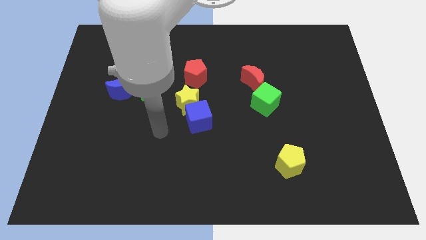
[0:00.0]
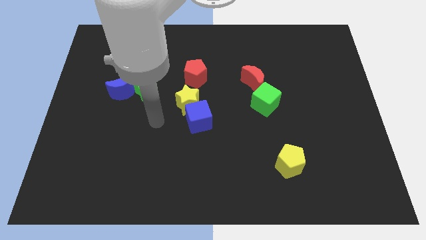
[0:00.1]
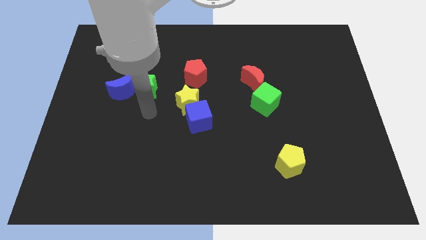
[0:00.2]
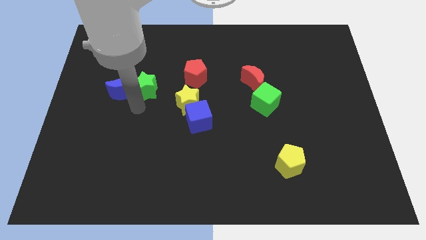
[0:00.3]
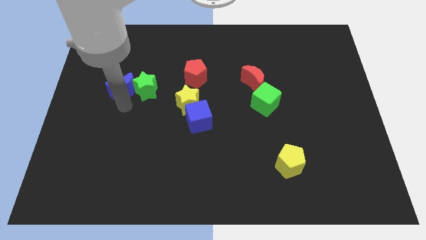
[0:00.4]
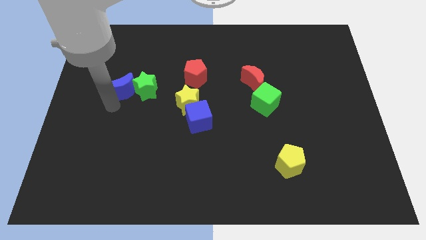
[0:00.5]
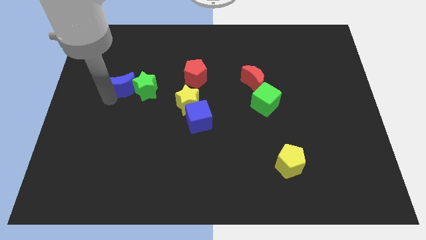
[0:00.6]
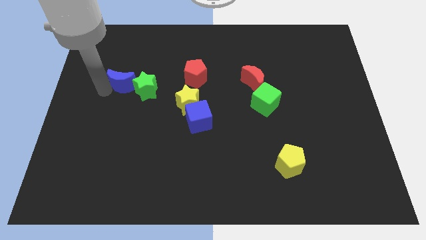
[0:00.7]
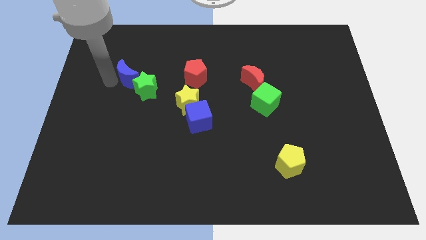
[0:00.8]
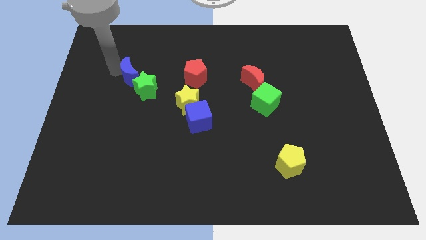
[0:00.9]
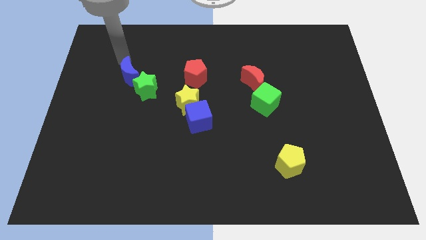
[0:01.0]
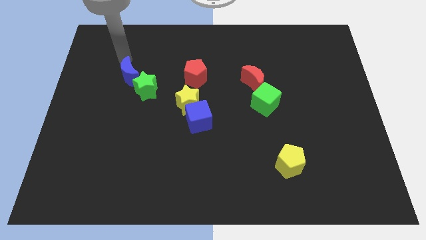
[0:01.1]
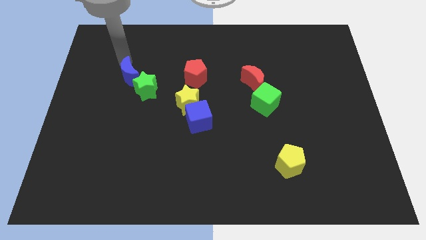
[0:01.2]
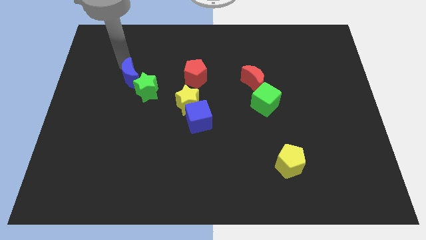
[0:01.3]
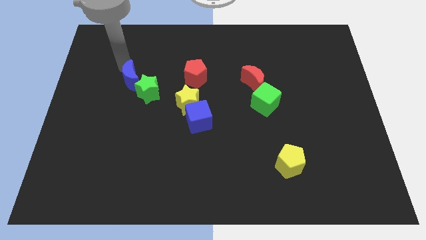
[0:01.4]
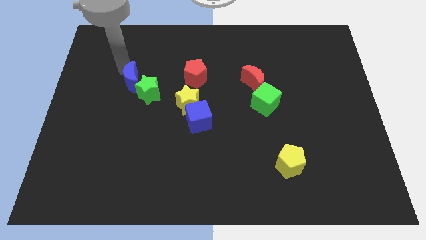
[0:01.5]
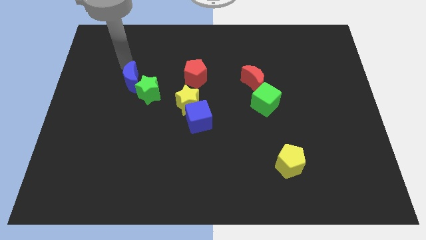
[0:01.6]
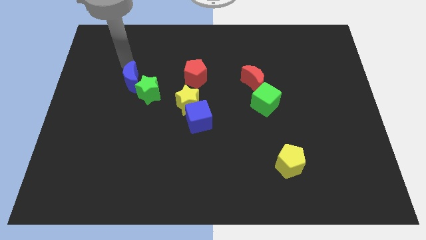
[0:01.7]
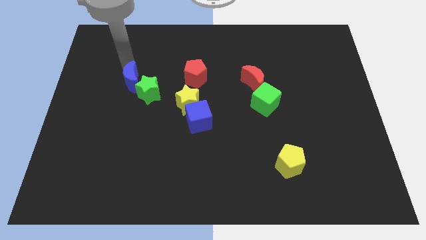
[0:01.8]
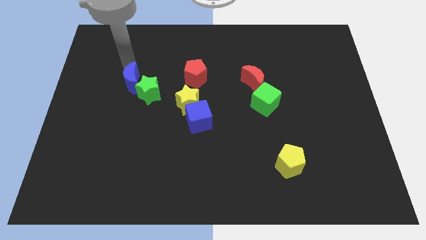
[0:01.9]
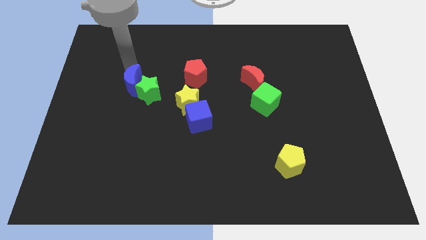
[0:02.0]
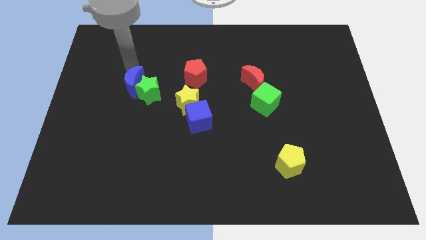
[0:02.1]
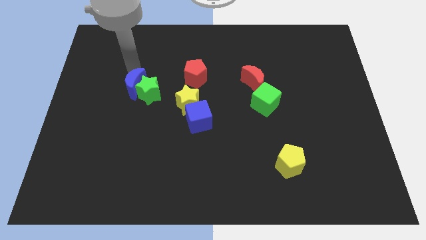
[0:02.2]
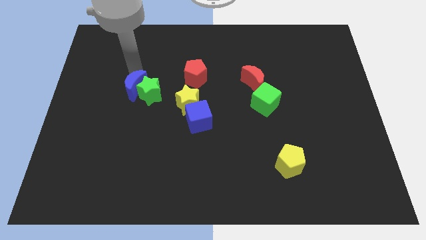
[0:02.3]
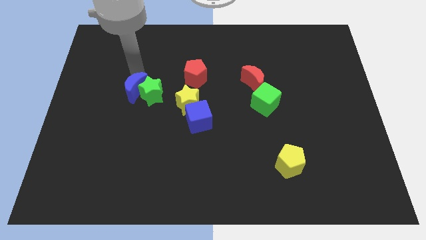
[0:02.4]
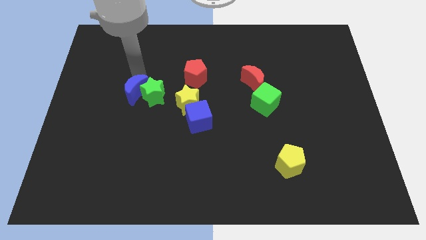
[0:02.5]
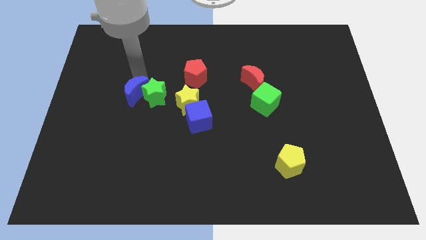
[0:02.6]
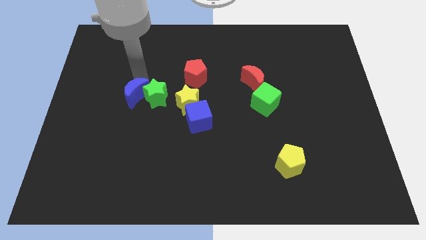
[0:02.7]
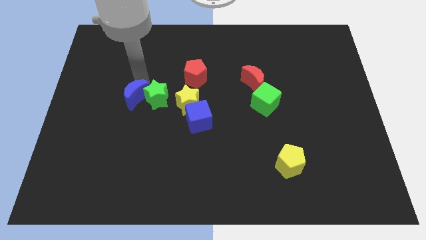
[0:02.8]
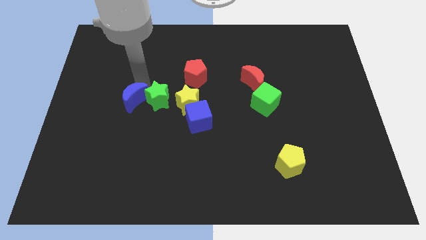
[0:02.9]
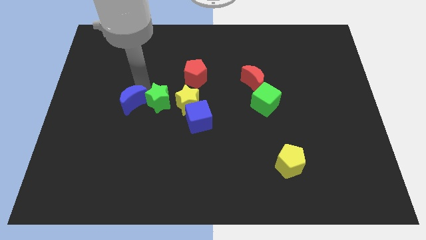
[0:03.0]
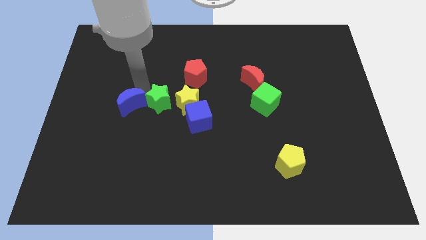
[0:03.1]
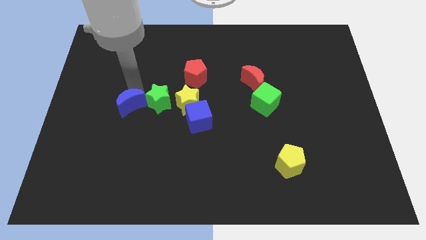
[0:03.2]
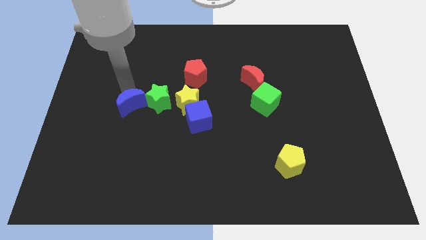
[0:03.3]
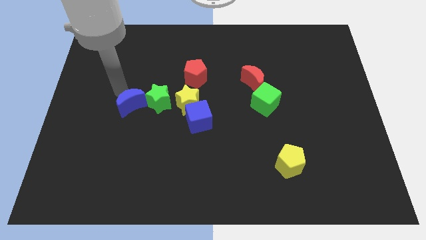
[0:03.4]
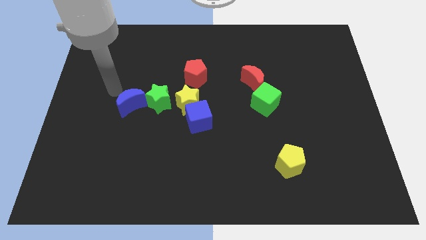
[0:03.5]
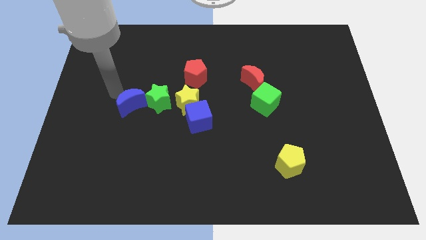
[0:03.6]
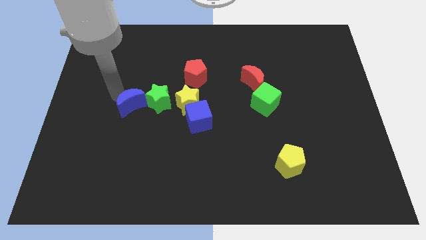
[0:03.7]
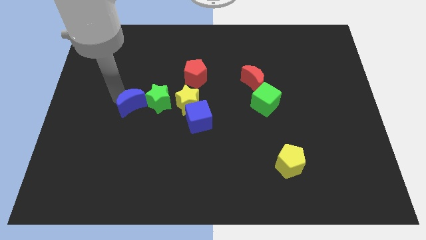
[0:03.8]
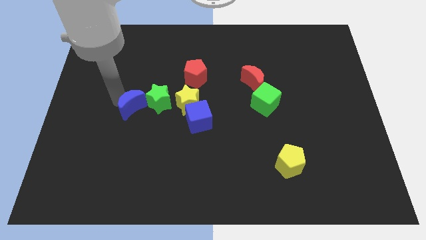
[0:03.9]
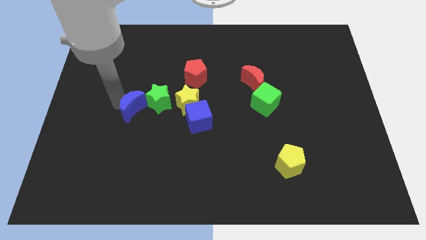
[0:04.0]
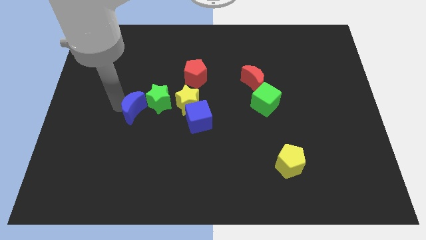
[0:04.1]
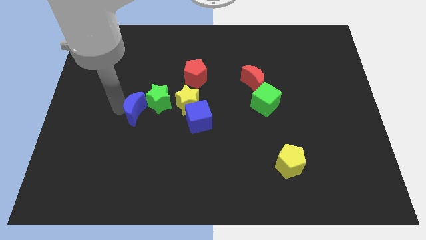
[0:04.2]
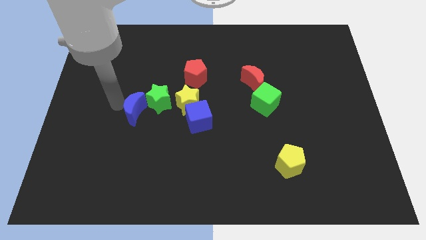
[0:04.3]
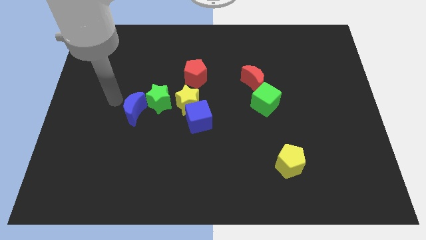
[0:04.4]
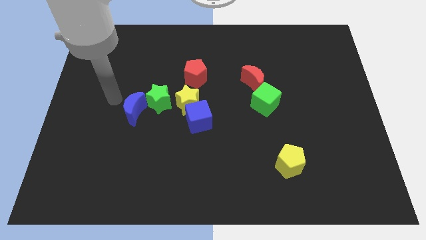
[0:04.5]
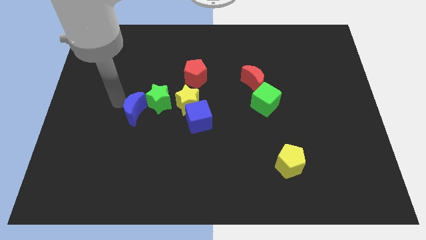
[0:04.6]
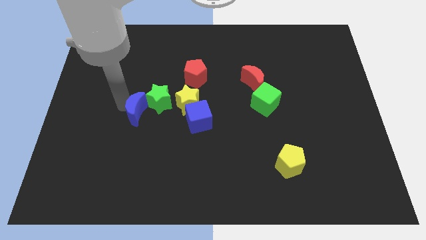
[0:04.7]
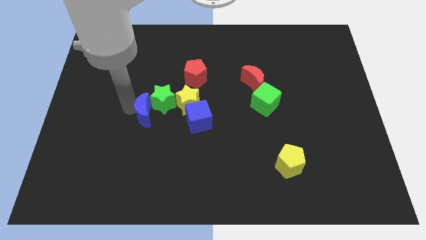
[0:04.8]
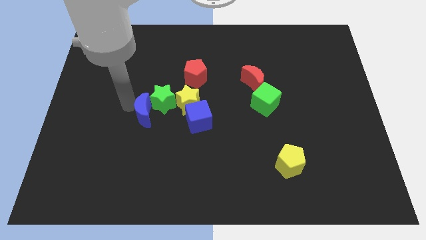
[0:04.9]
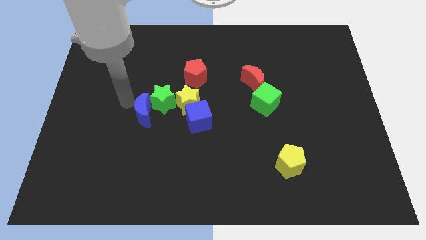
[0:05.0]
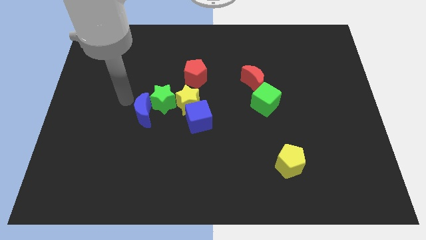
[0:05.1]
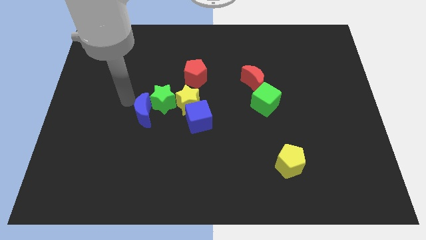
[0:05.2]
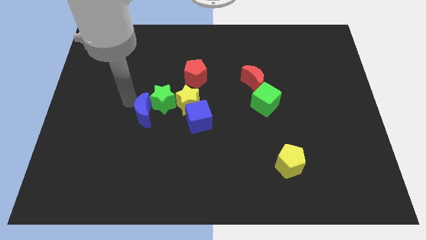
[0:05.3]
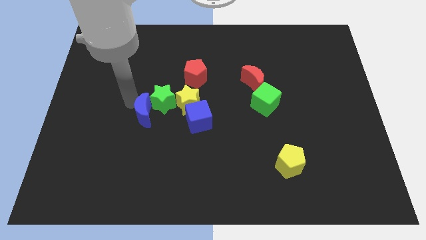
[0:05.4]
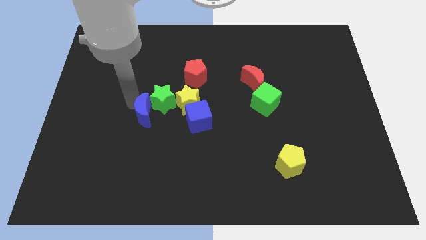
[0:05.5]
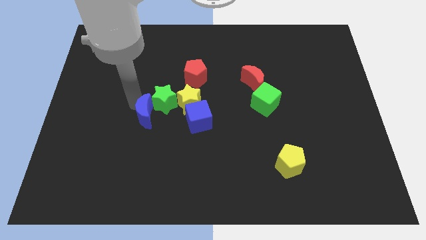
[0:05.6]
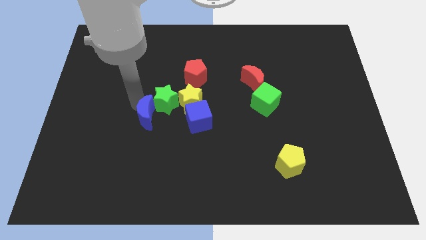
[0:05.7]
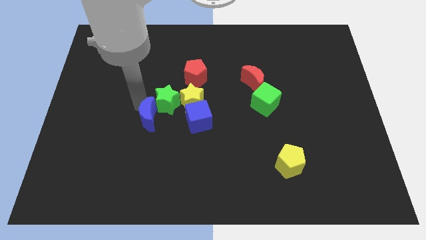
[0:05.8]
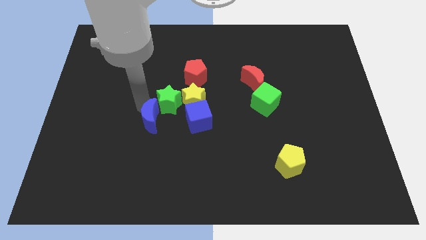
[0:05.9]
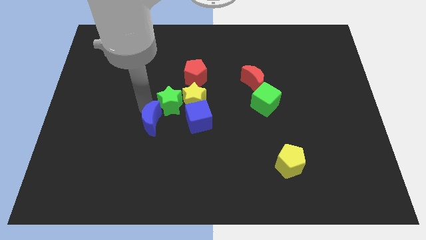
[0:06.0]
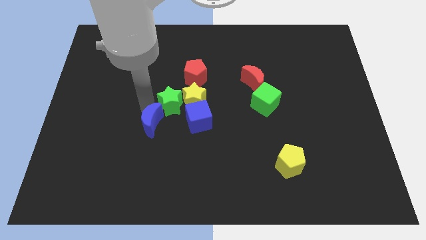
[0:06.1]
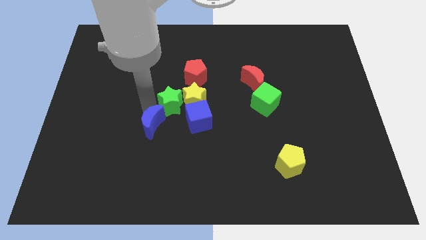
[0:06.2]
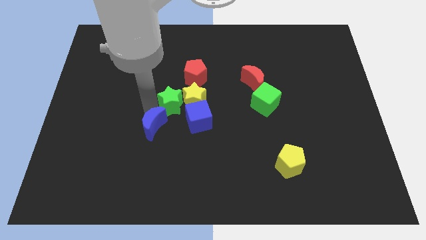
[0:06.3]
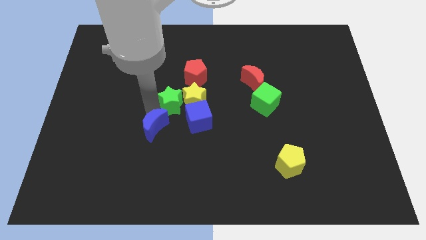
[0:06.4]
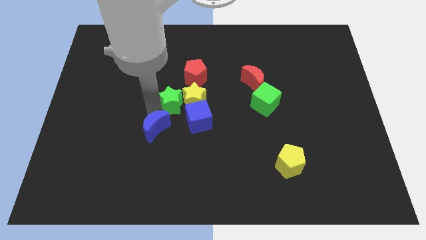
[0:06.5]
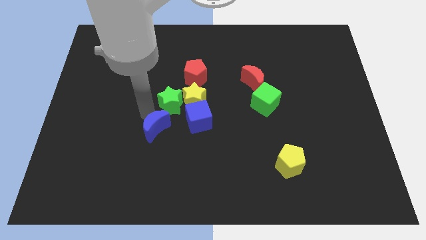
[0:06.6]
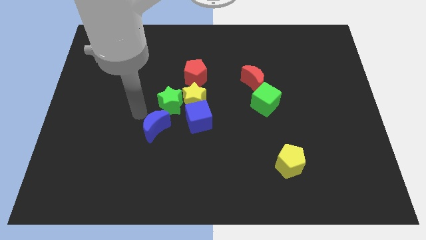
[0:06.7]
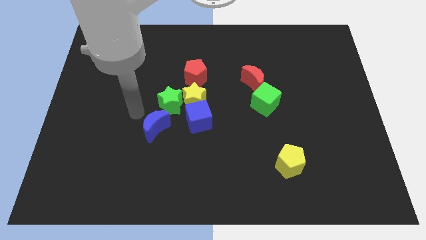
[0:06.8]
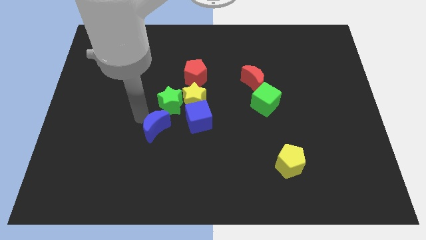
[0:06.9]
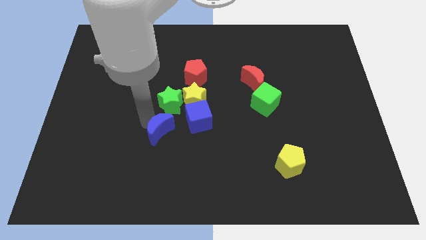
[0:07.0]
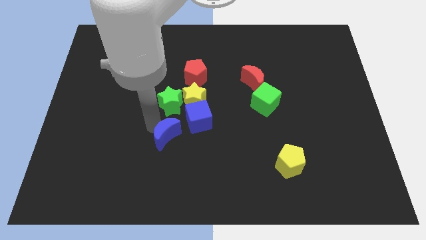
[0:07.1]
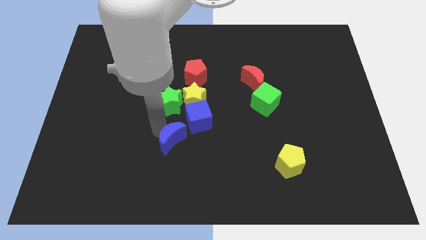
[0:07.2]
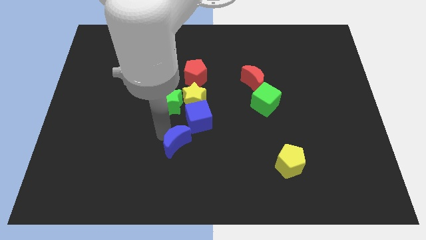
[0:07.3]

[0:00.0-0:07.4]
slide the blue moon to the bottom side of the blue cube
